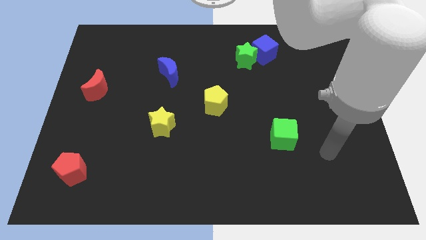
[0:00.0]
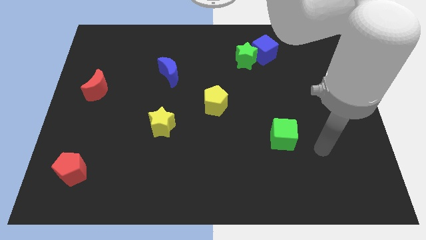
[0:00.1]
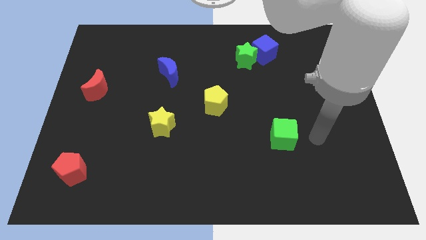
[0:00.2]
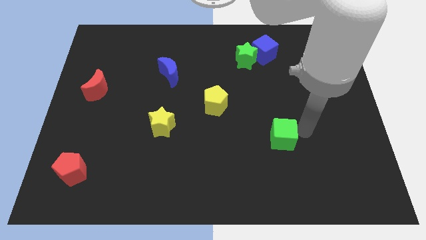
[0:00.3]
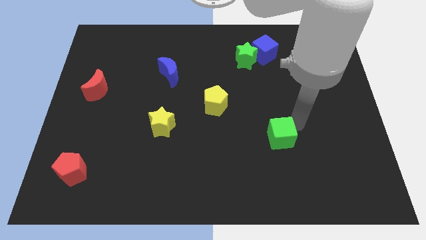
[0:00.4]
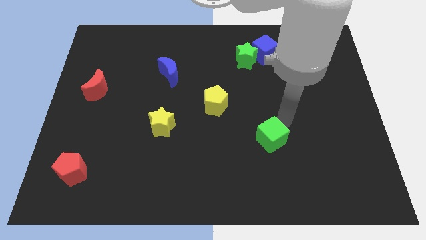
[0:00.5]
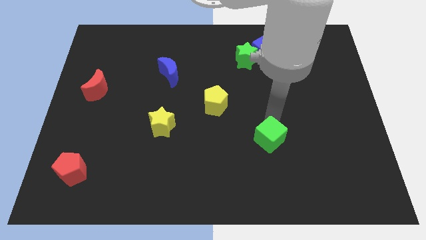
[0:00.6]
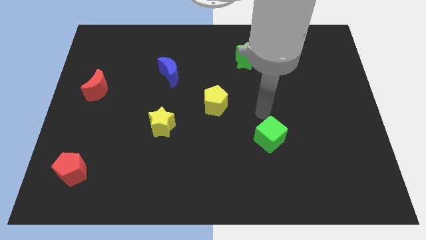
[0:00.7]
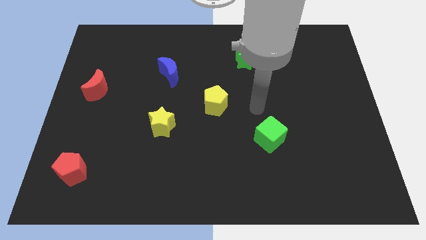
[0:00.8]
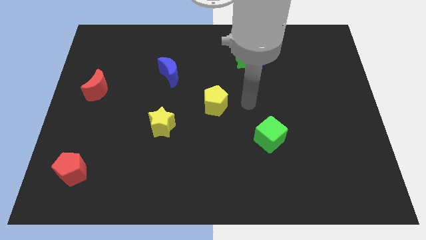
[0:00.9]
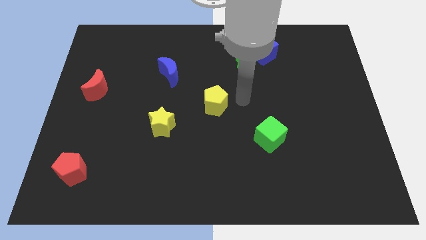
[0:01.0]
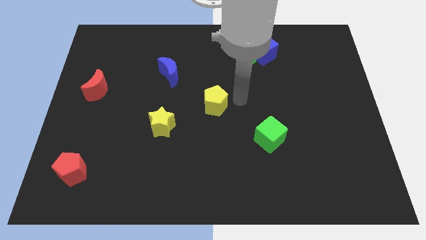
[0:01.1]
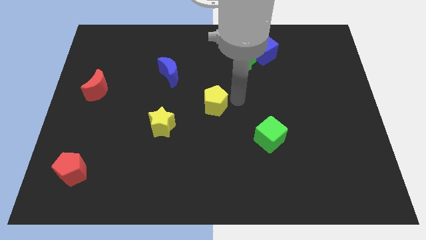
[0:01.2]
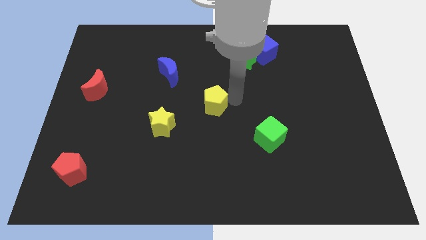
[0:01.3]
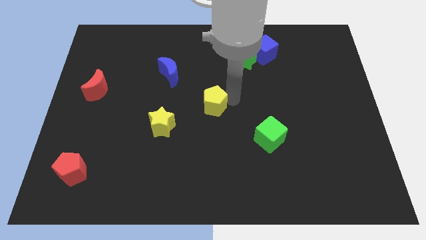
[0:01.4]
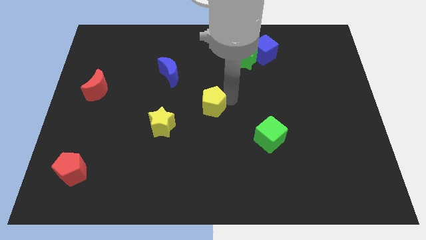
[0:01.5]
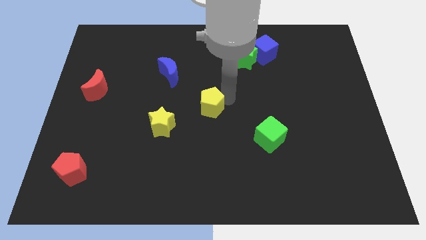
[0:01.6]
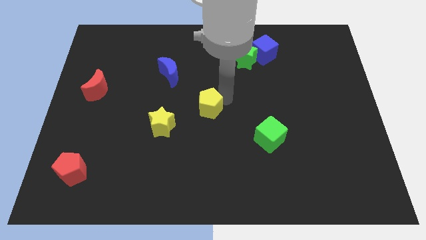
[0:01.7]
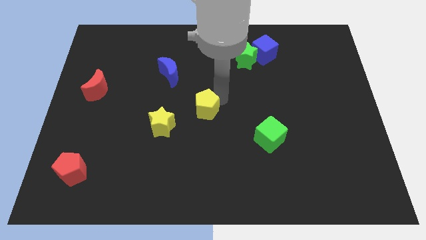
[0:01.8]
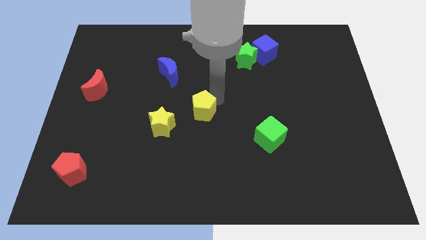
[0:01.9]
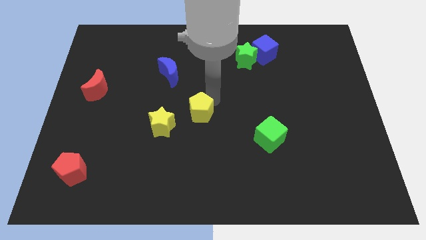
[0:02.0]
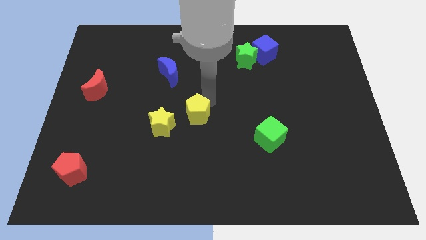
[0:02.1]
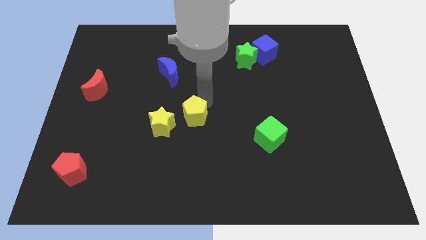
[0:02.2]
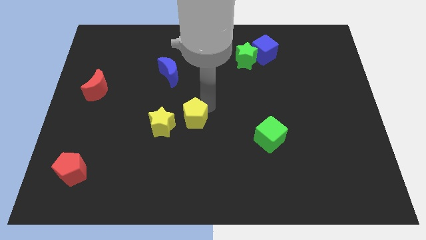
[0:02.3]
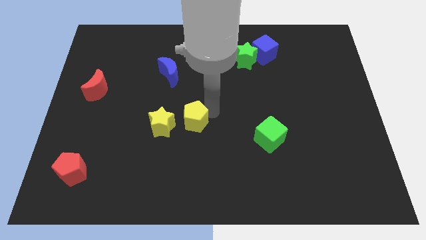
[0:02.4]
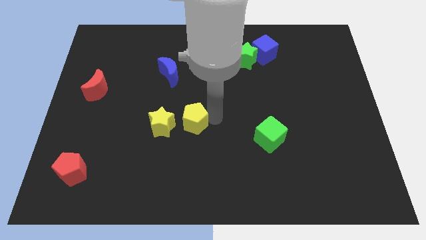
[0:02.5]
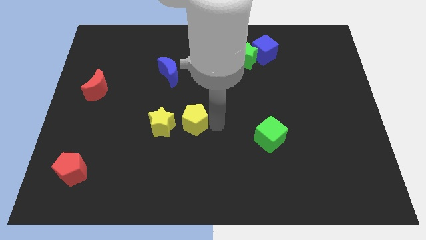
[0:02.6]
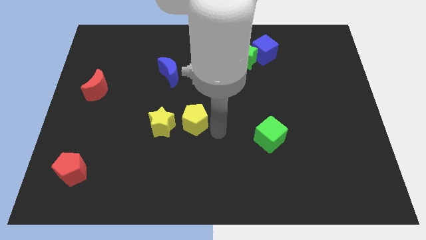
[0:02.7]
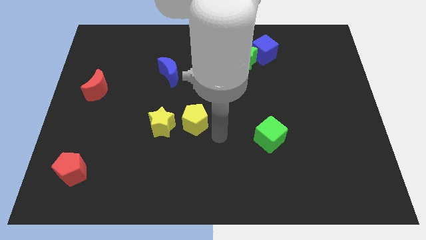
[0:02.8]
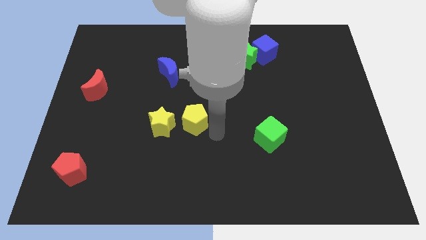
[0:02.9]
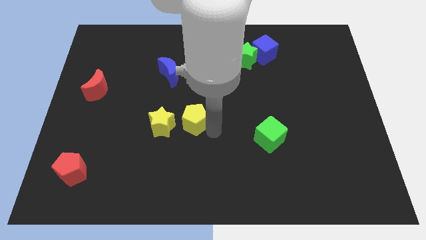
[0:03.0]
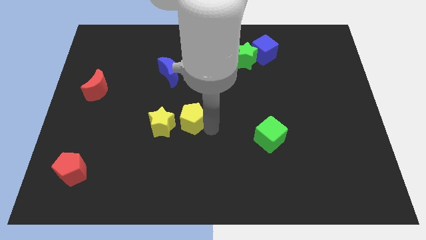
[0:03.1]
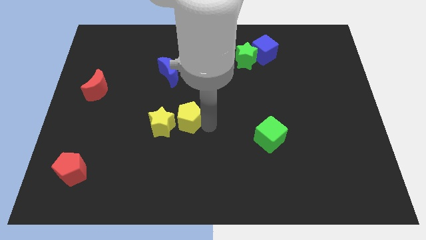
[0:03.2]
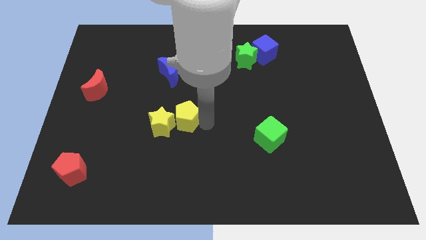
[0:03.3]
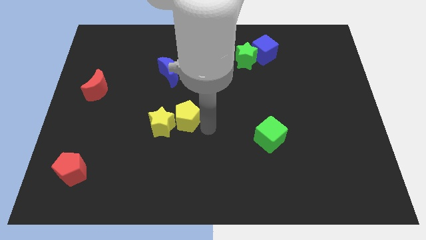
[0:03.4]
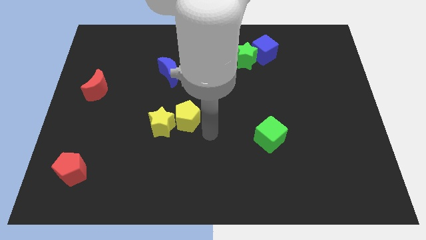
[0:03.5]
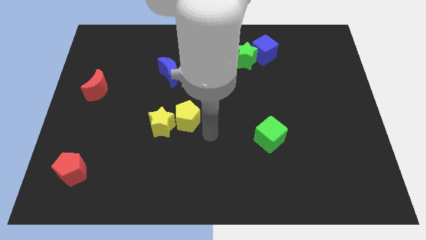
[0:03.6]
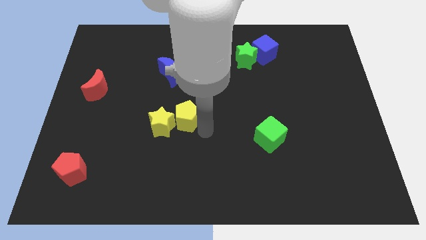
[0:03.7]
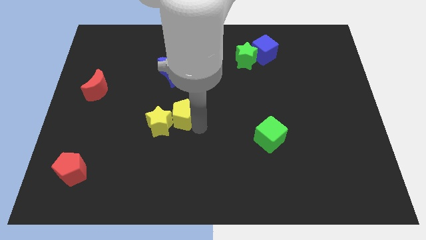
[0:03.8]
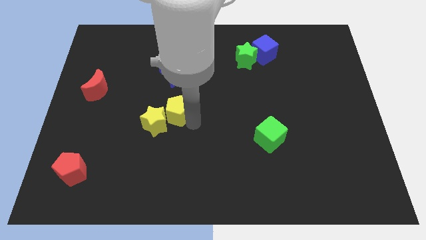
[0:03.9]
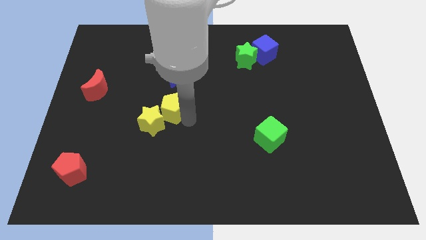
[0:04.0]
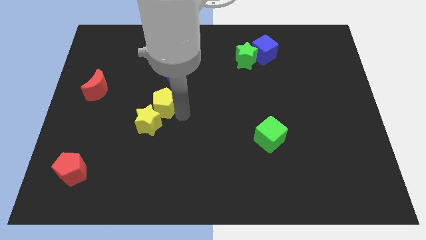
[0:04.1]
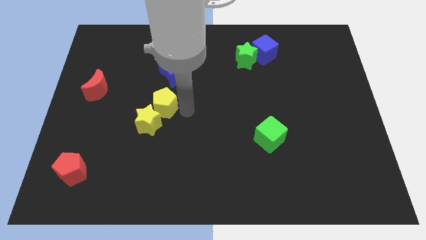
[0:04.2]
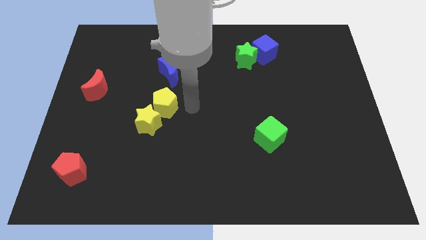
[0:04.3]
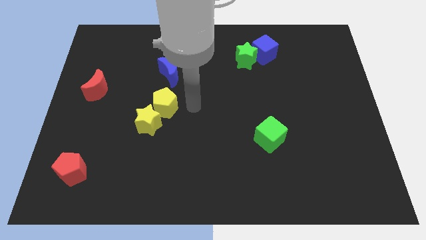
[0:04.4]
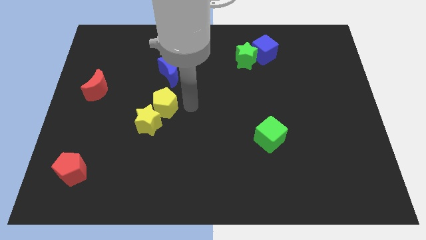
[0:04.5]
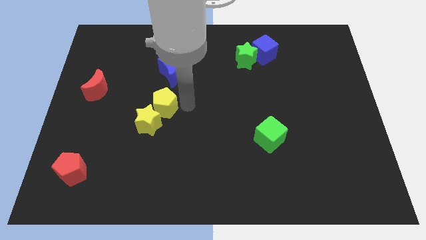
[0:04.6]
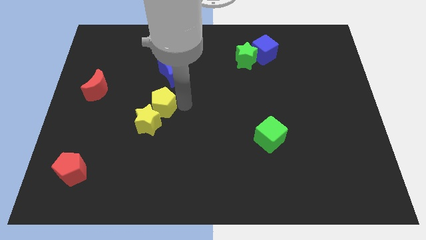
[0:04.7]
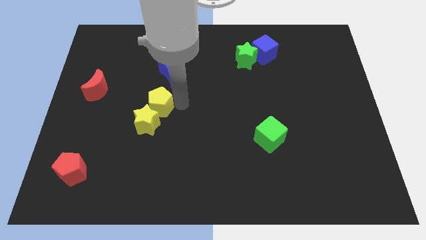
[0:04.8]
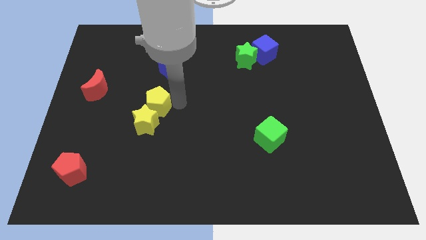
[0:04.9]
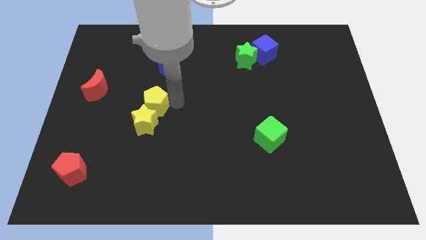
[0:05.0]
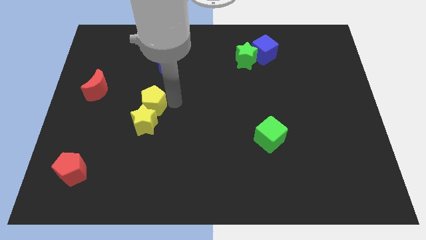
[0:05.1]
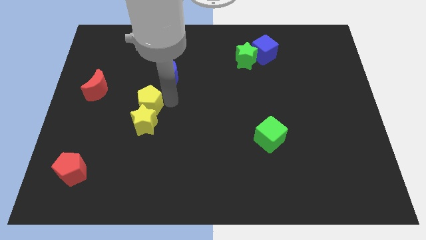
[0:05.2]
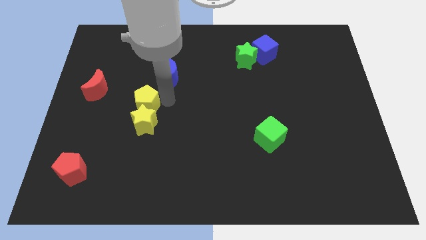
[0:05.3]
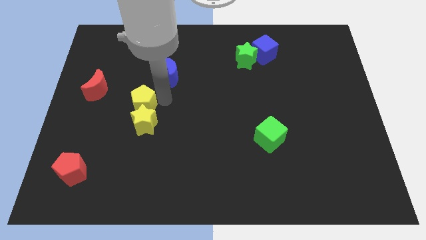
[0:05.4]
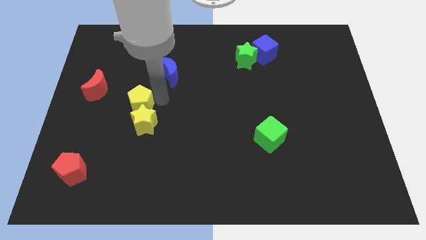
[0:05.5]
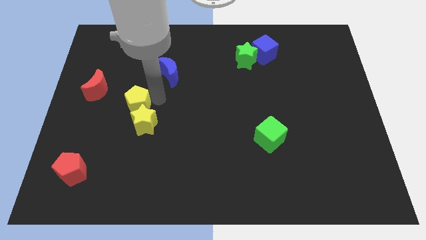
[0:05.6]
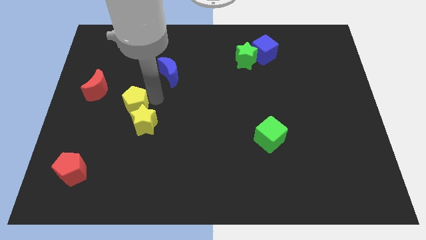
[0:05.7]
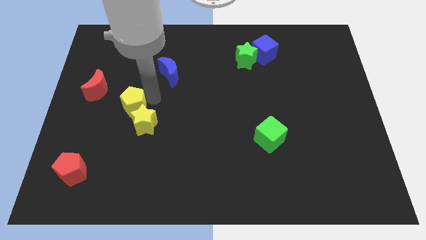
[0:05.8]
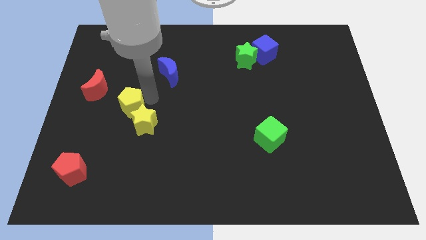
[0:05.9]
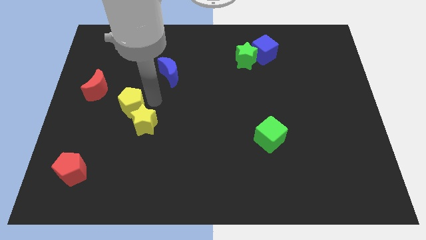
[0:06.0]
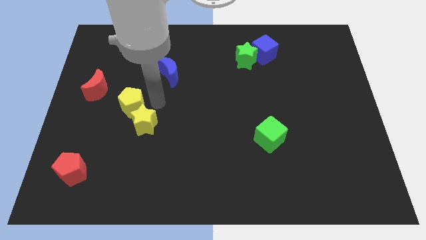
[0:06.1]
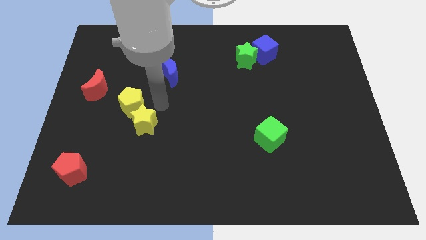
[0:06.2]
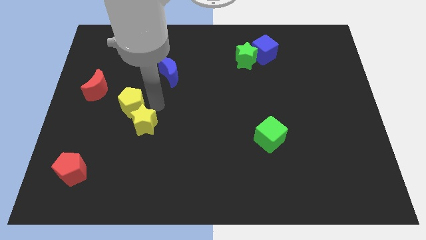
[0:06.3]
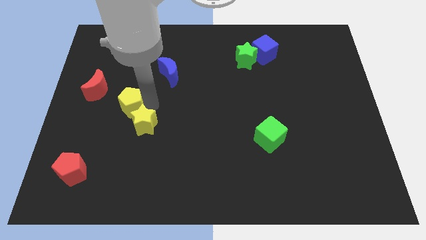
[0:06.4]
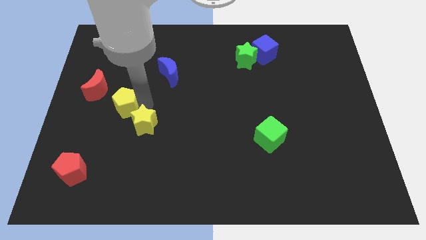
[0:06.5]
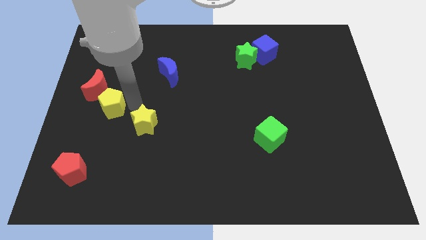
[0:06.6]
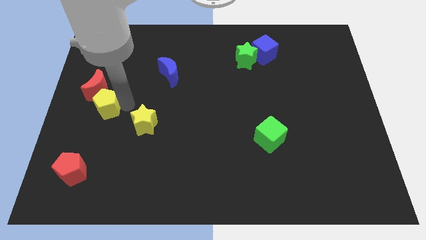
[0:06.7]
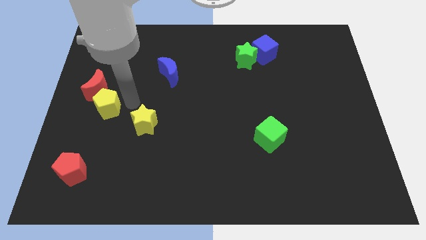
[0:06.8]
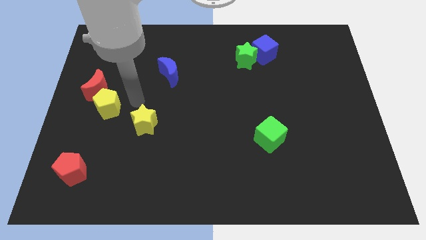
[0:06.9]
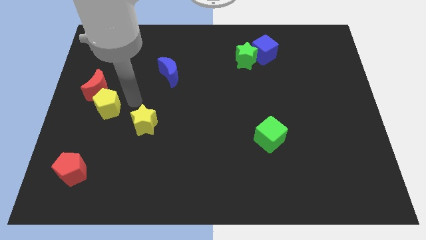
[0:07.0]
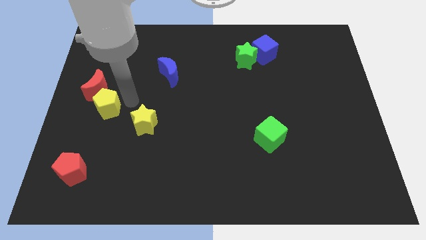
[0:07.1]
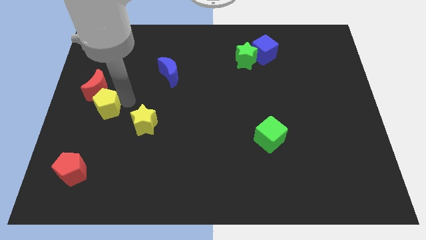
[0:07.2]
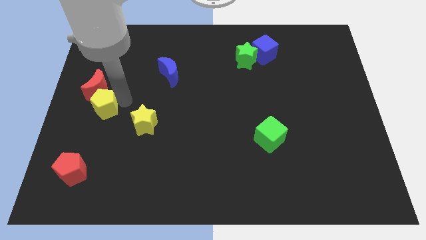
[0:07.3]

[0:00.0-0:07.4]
push the yellow pentagon to the left side of the board

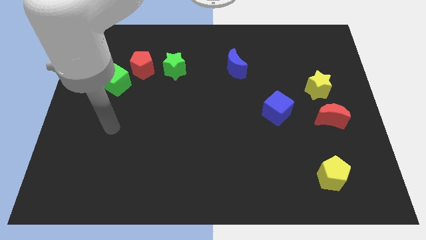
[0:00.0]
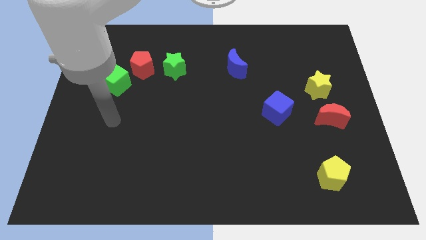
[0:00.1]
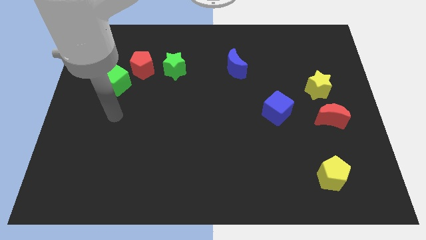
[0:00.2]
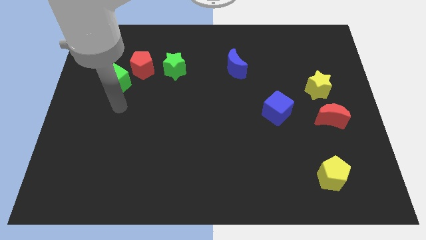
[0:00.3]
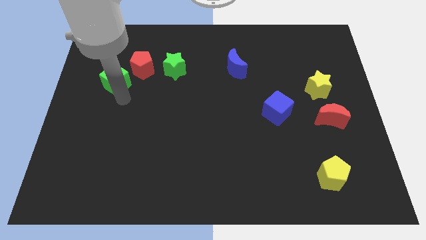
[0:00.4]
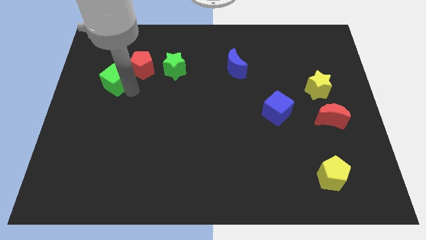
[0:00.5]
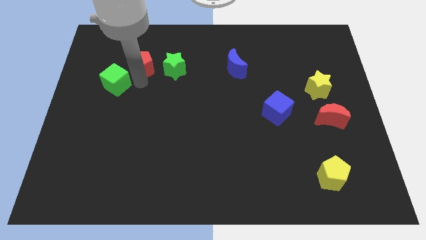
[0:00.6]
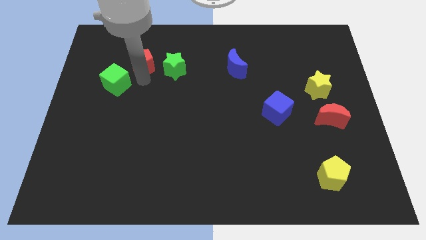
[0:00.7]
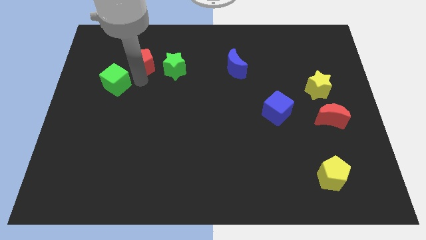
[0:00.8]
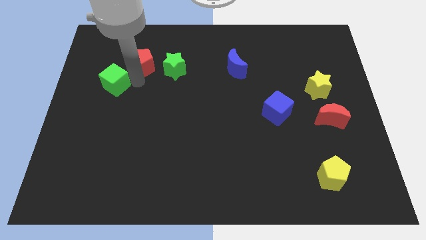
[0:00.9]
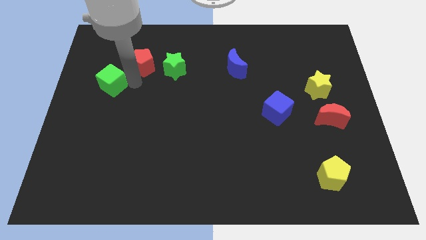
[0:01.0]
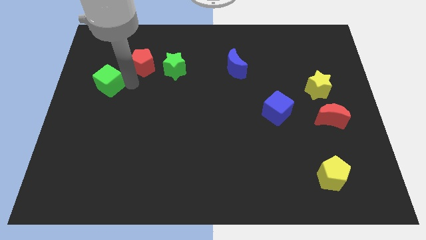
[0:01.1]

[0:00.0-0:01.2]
slide the green cube to the left side
